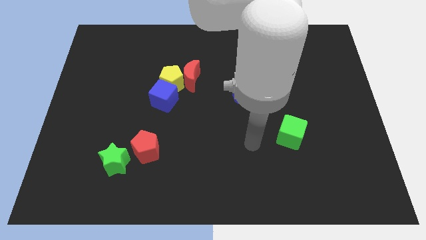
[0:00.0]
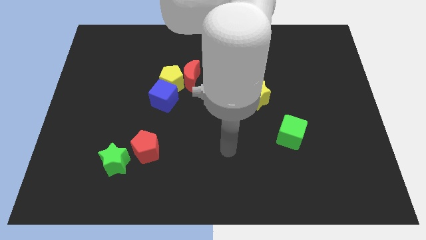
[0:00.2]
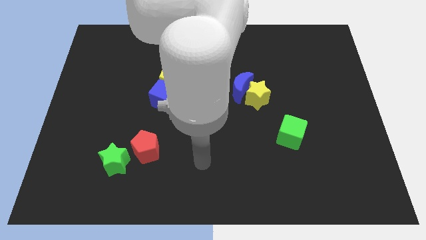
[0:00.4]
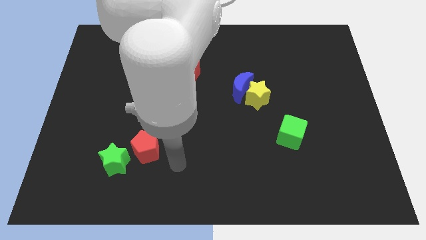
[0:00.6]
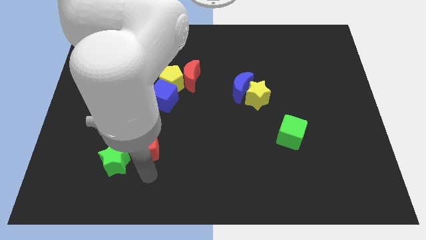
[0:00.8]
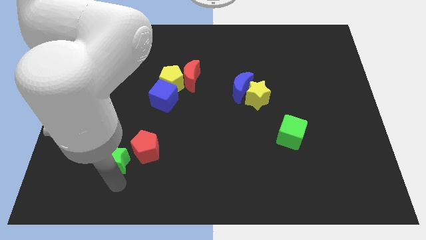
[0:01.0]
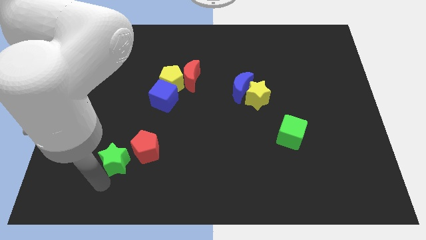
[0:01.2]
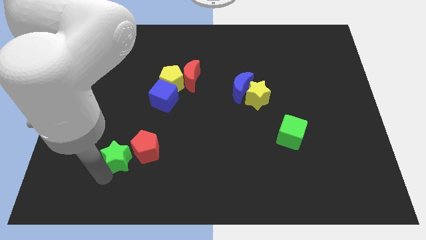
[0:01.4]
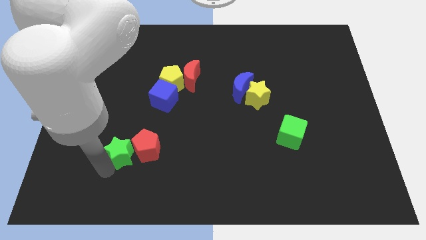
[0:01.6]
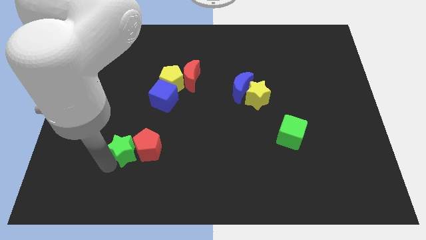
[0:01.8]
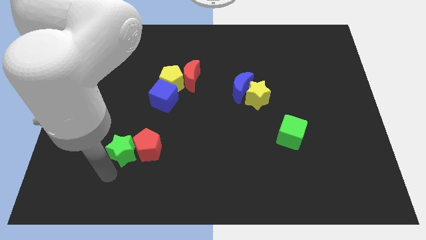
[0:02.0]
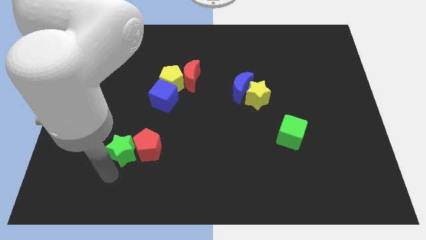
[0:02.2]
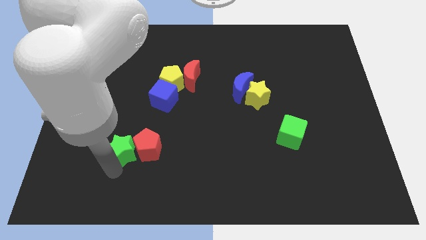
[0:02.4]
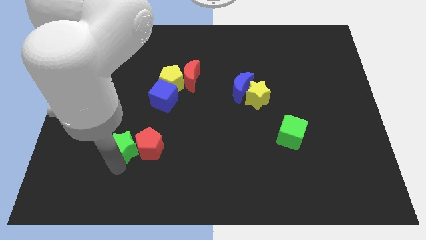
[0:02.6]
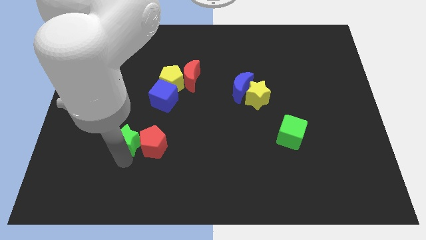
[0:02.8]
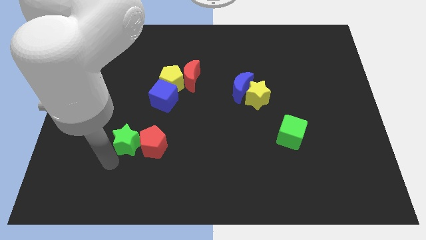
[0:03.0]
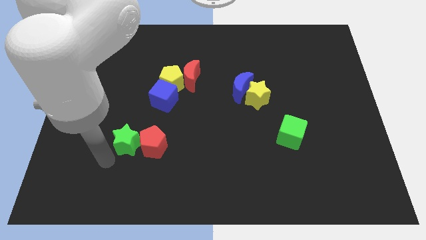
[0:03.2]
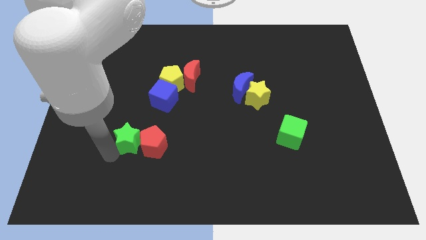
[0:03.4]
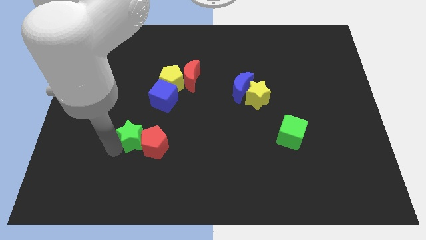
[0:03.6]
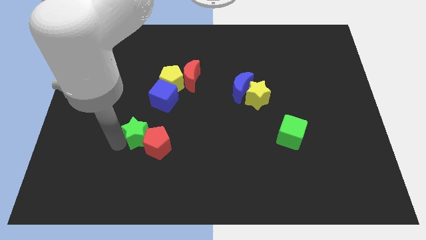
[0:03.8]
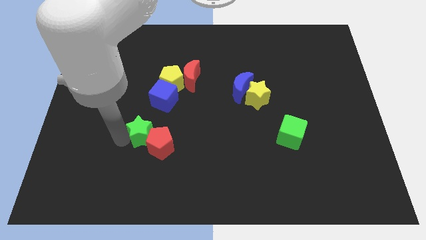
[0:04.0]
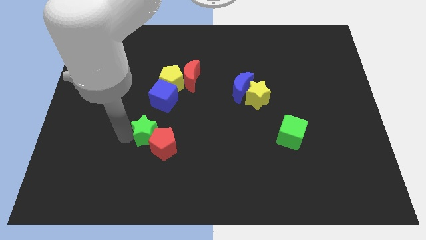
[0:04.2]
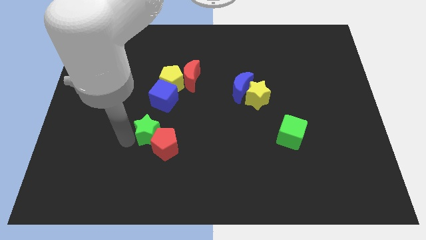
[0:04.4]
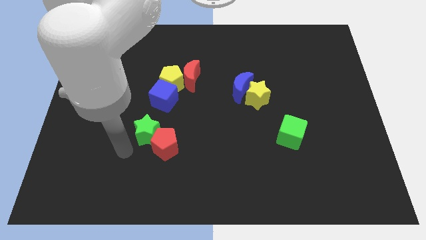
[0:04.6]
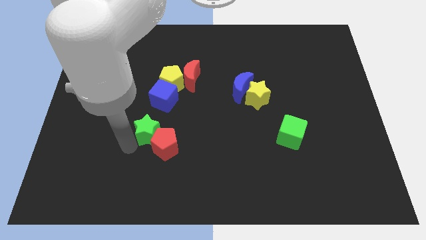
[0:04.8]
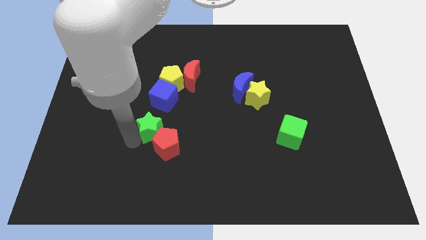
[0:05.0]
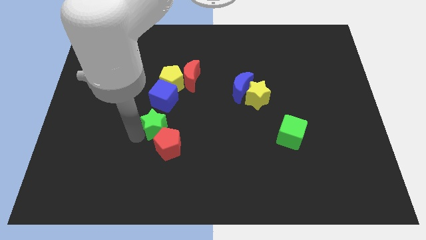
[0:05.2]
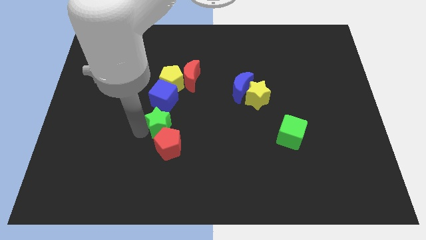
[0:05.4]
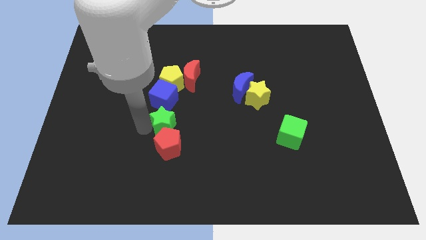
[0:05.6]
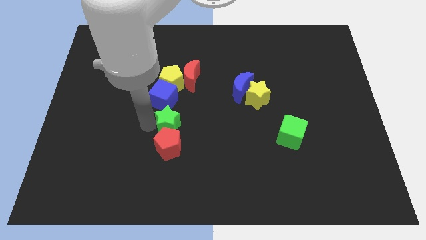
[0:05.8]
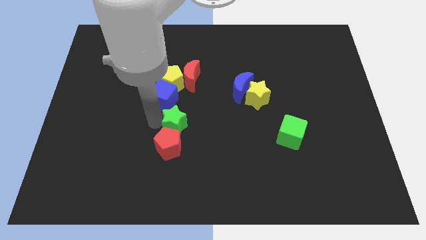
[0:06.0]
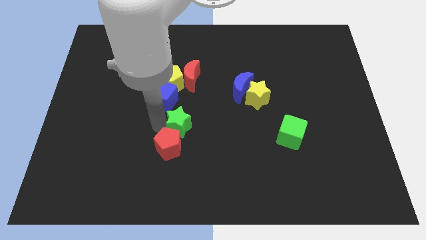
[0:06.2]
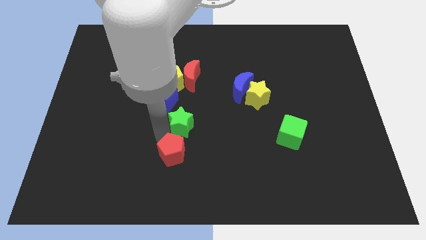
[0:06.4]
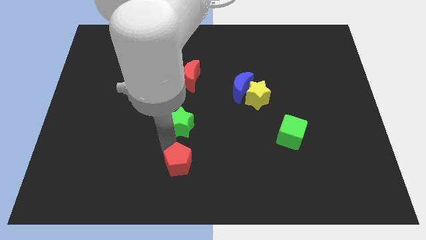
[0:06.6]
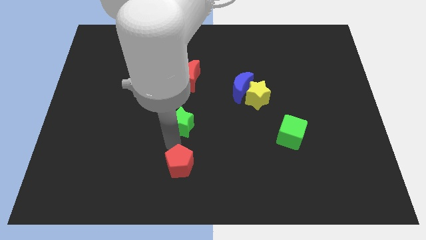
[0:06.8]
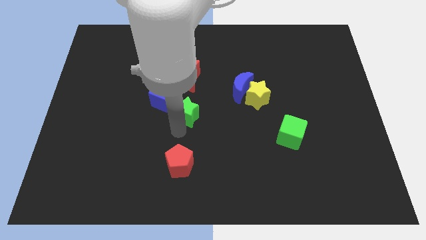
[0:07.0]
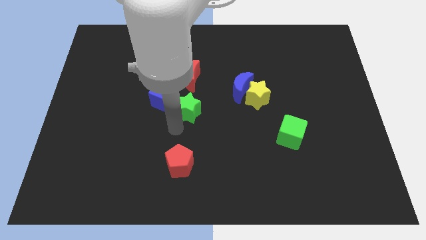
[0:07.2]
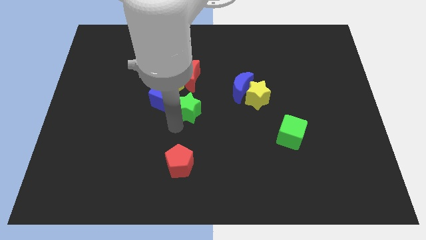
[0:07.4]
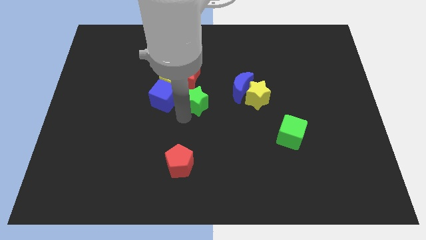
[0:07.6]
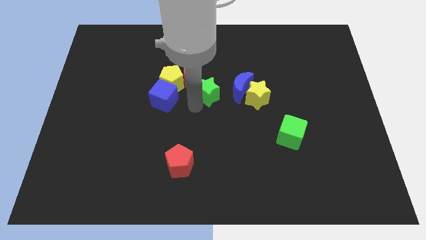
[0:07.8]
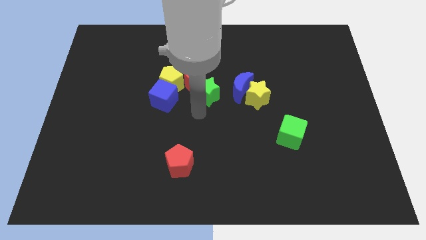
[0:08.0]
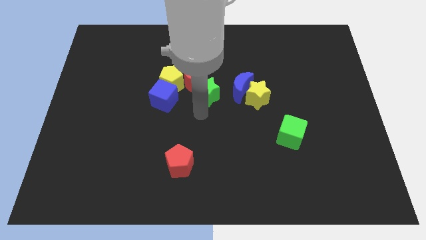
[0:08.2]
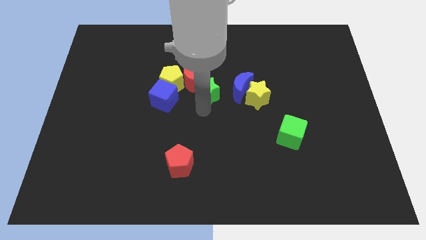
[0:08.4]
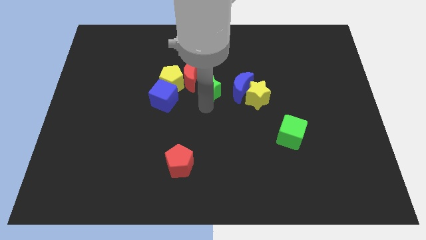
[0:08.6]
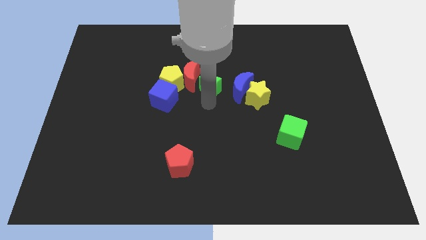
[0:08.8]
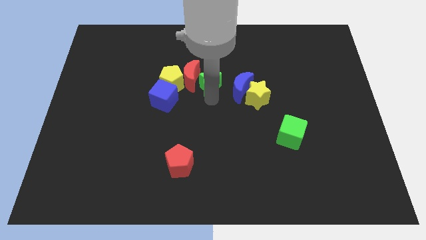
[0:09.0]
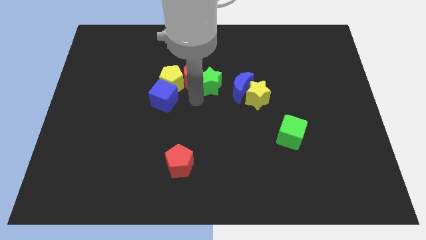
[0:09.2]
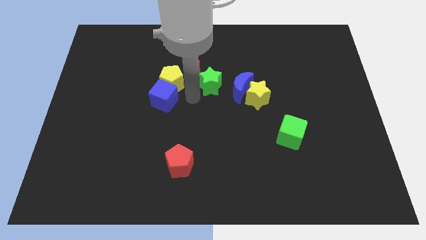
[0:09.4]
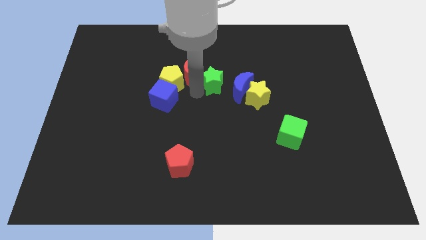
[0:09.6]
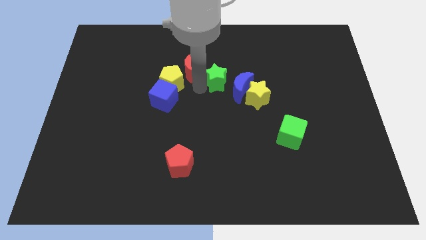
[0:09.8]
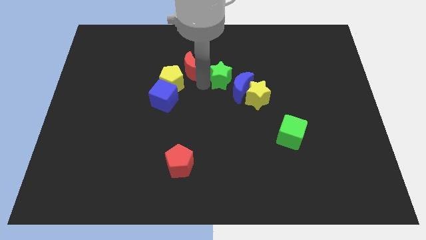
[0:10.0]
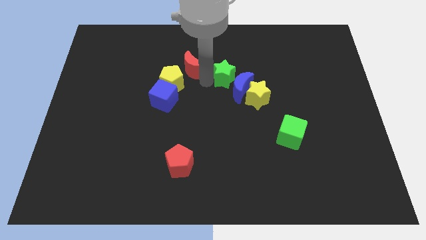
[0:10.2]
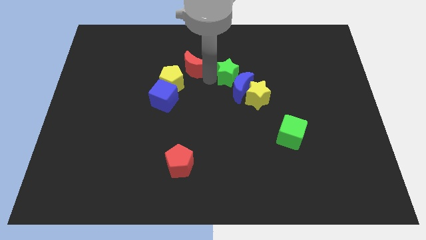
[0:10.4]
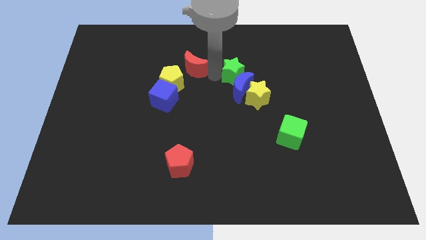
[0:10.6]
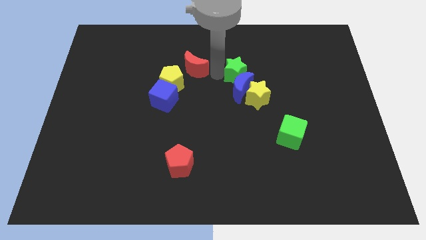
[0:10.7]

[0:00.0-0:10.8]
put the green star to the top of the yellow star

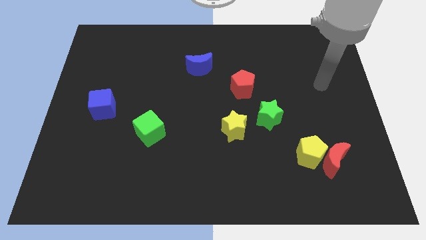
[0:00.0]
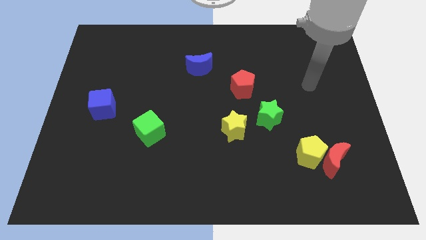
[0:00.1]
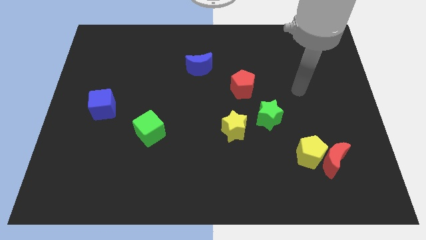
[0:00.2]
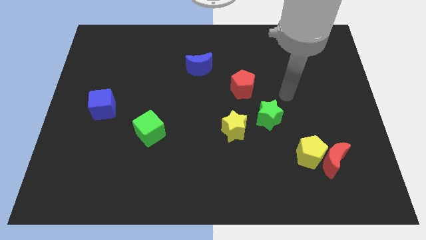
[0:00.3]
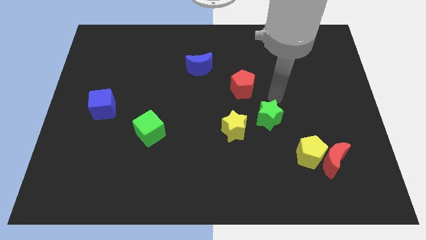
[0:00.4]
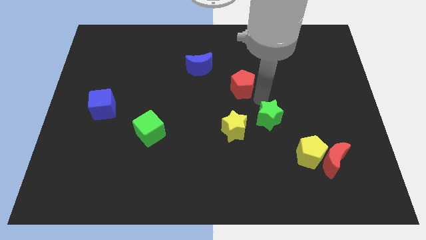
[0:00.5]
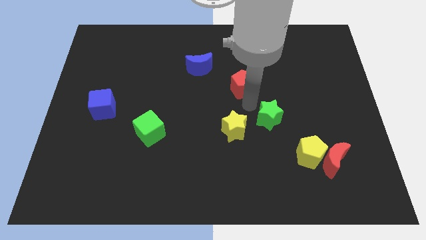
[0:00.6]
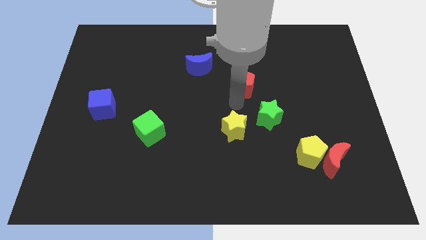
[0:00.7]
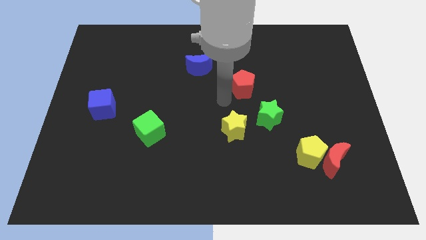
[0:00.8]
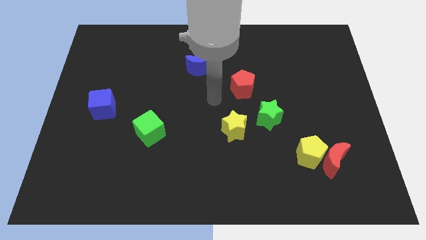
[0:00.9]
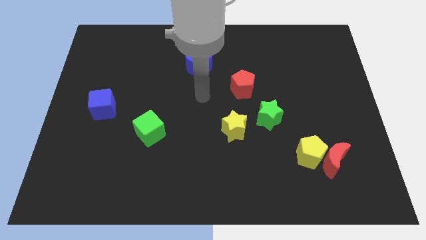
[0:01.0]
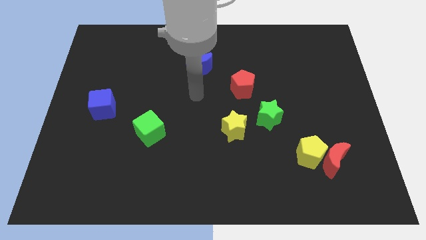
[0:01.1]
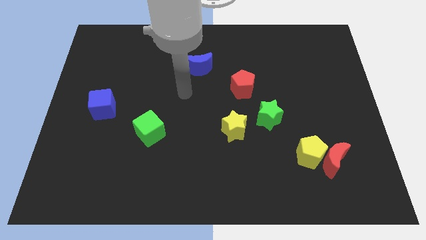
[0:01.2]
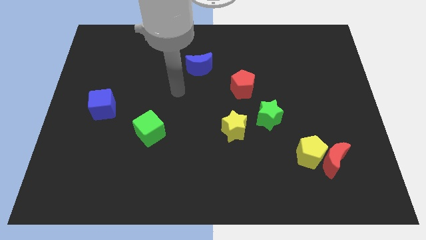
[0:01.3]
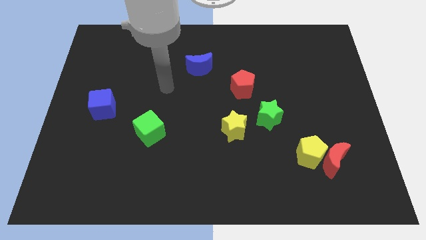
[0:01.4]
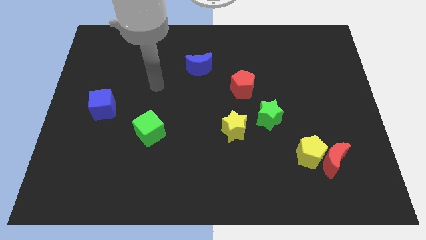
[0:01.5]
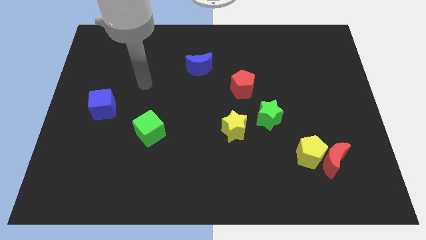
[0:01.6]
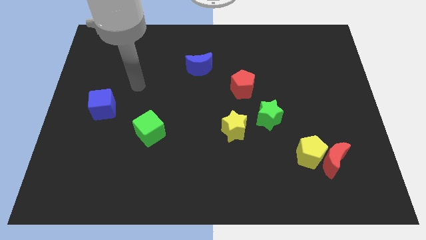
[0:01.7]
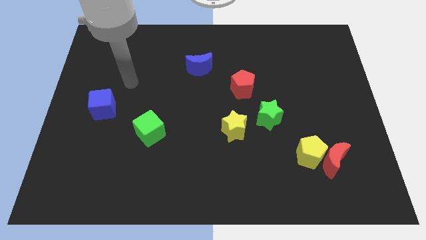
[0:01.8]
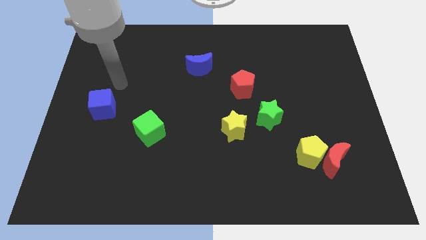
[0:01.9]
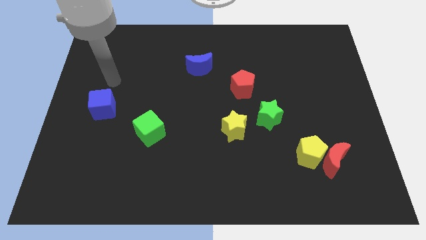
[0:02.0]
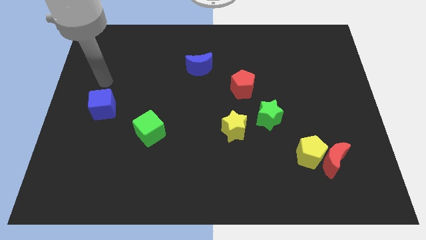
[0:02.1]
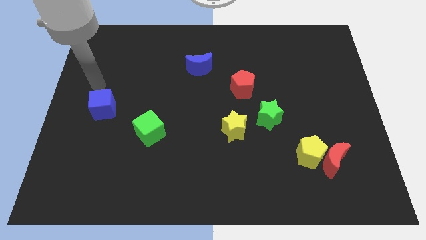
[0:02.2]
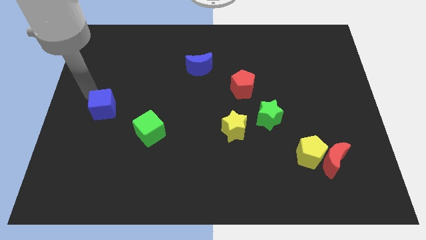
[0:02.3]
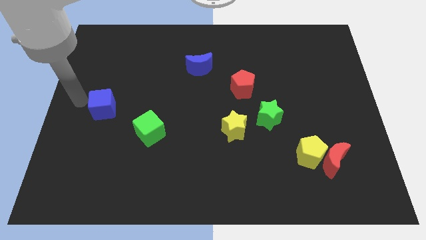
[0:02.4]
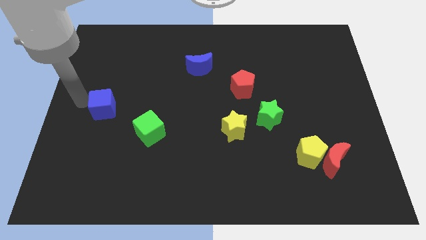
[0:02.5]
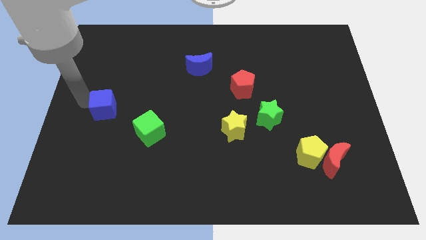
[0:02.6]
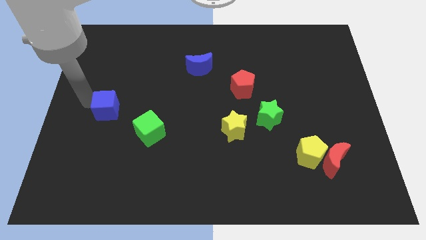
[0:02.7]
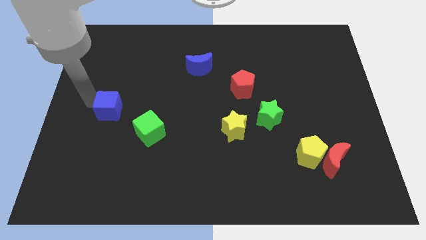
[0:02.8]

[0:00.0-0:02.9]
push the blue cube to the top left side of the green cube

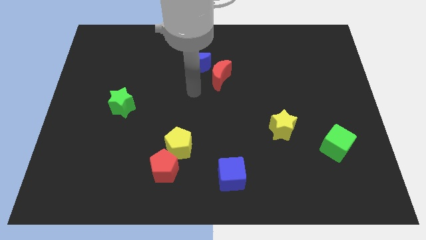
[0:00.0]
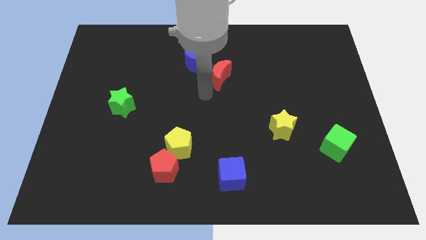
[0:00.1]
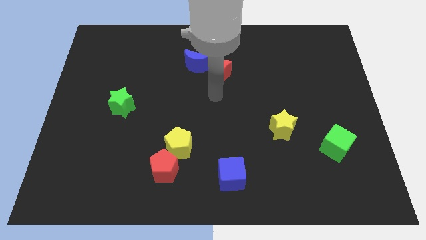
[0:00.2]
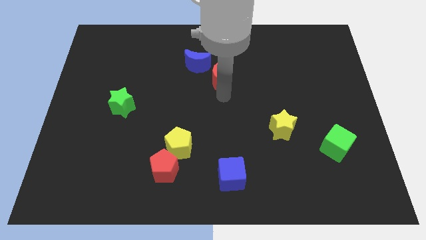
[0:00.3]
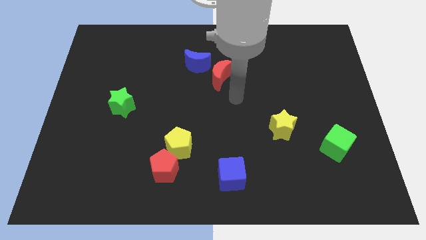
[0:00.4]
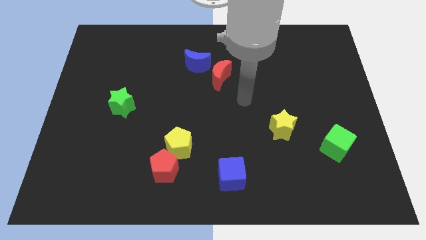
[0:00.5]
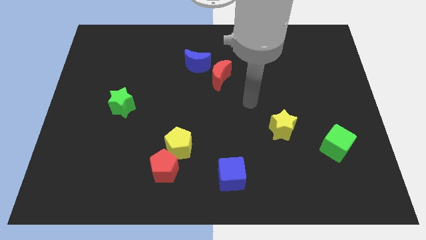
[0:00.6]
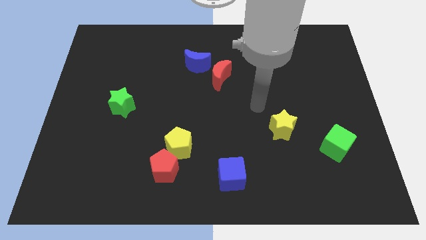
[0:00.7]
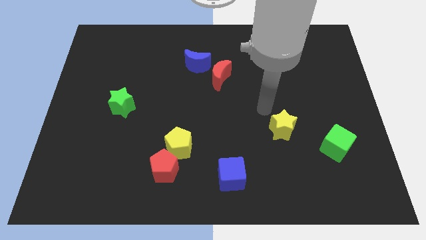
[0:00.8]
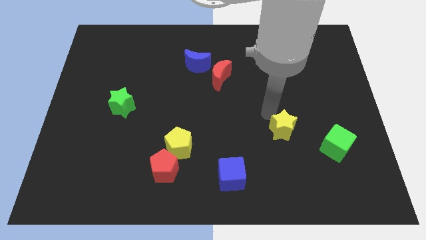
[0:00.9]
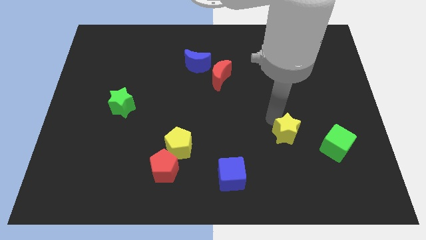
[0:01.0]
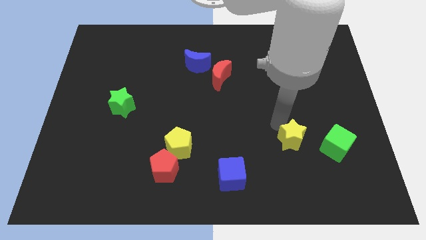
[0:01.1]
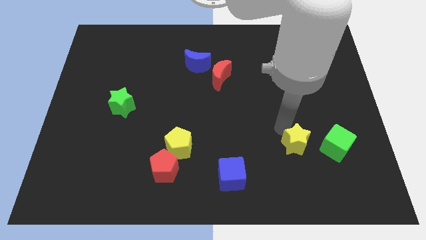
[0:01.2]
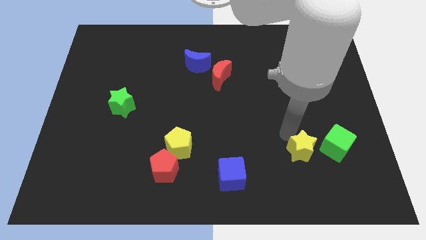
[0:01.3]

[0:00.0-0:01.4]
move the yellow star diagonally down and to the left of the green cube
